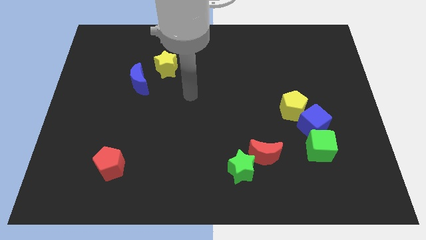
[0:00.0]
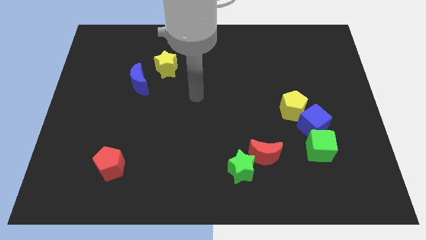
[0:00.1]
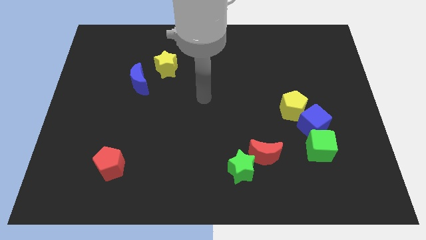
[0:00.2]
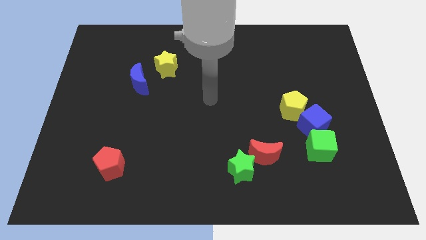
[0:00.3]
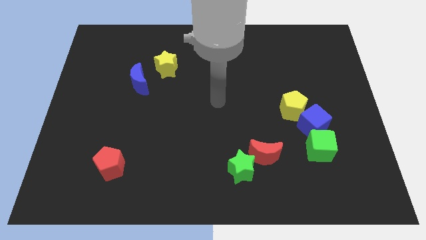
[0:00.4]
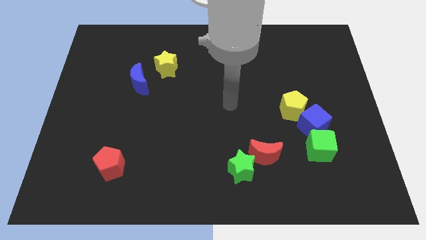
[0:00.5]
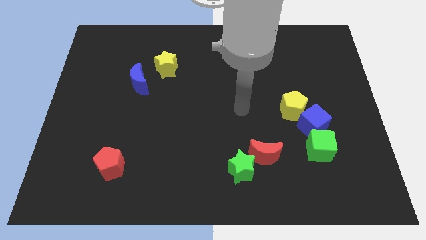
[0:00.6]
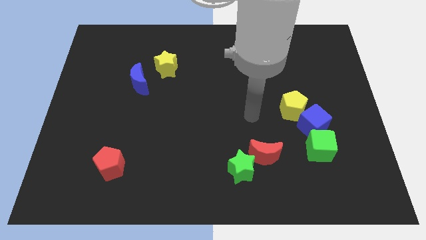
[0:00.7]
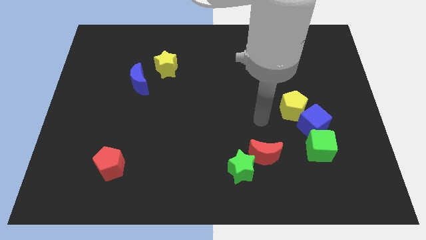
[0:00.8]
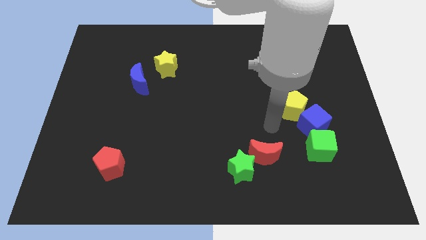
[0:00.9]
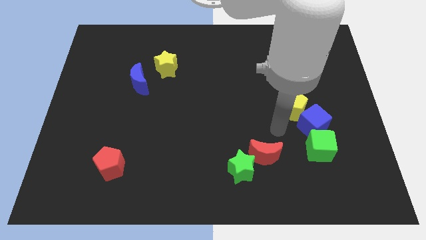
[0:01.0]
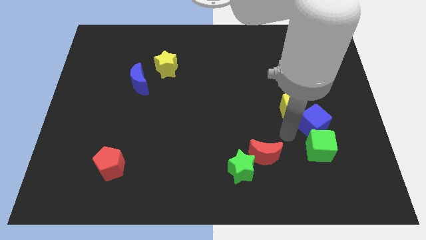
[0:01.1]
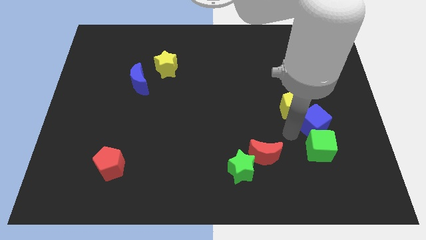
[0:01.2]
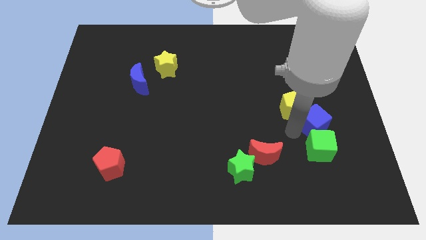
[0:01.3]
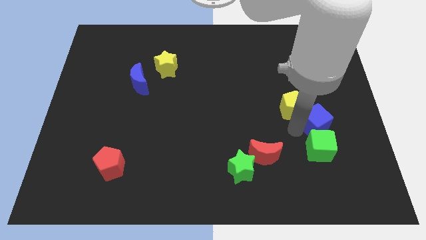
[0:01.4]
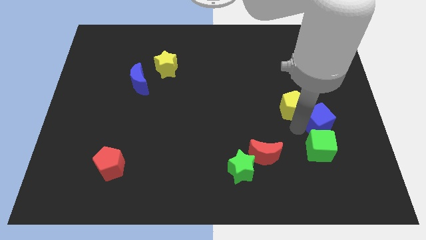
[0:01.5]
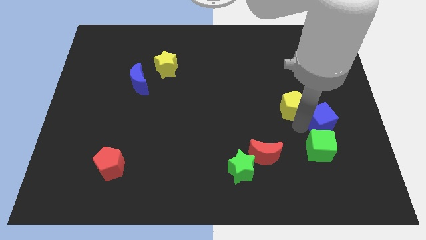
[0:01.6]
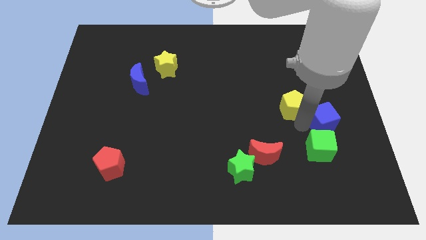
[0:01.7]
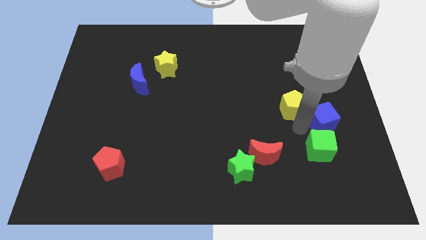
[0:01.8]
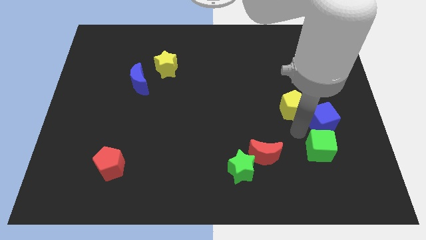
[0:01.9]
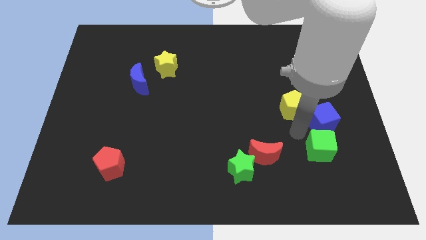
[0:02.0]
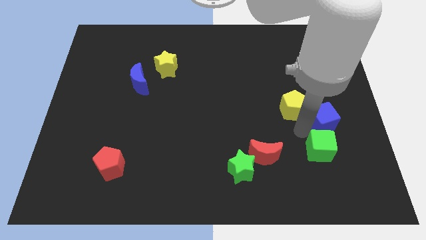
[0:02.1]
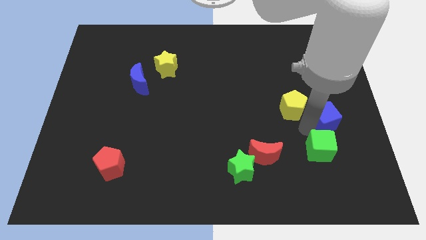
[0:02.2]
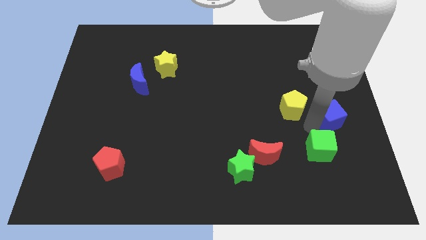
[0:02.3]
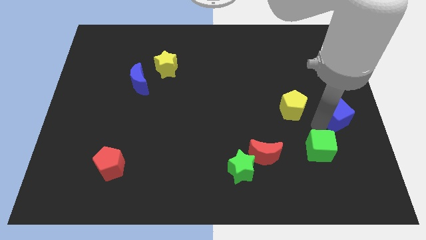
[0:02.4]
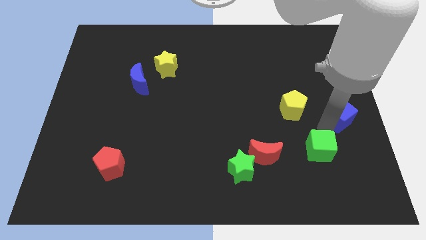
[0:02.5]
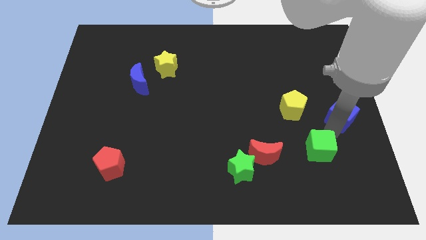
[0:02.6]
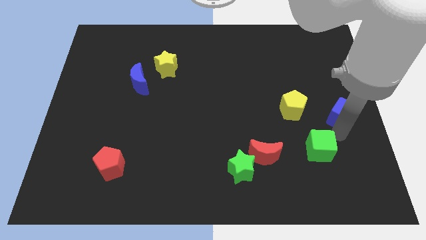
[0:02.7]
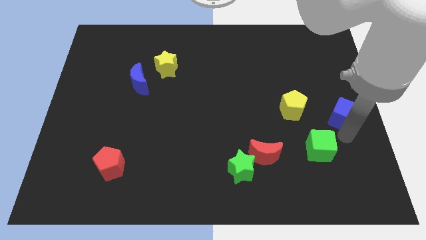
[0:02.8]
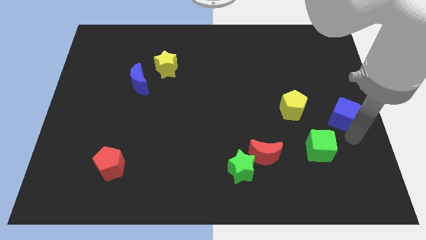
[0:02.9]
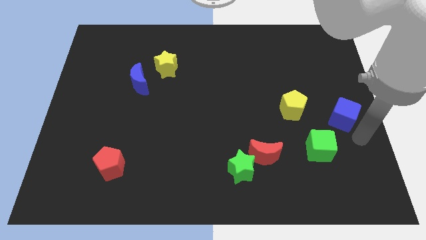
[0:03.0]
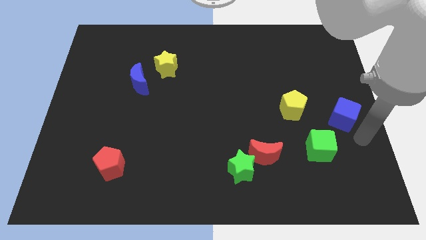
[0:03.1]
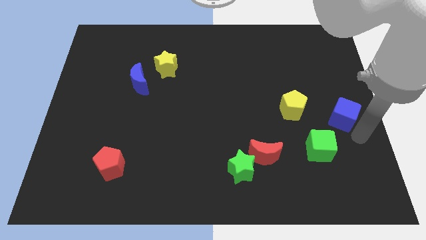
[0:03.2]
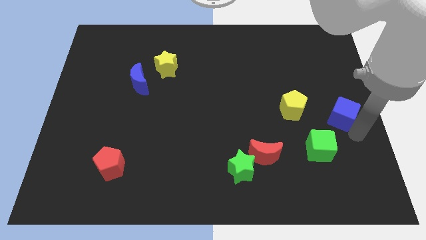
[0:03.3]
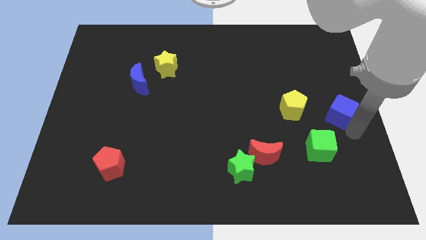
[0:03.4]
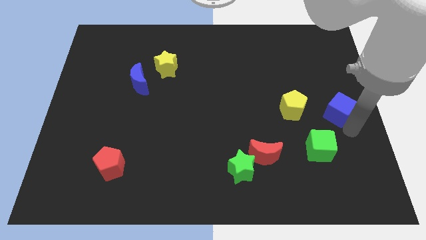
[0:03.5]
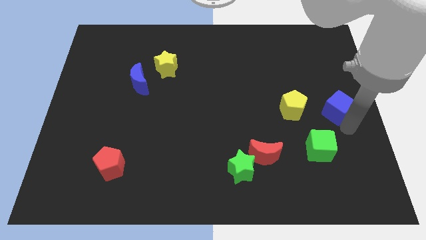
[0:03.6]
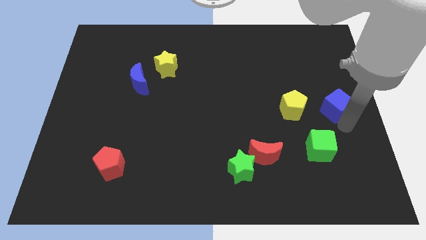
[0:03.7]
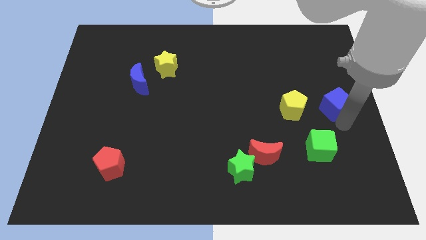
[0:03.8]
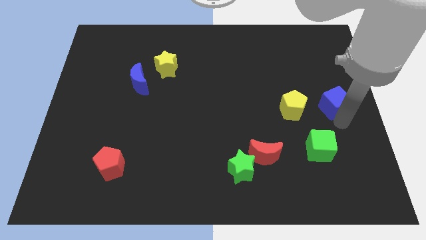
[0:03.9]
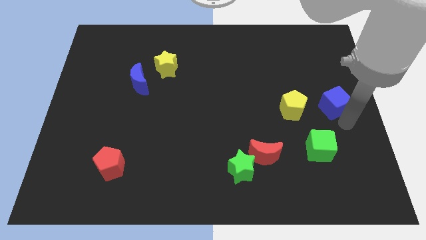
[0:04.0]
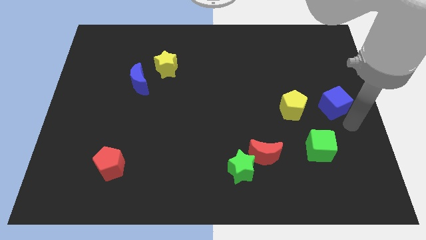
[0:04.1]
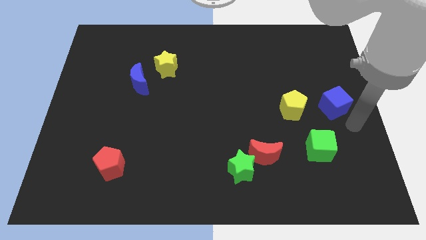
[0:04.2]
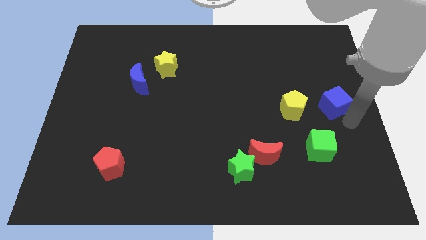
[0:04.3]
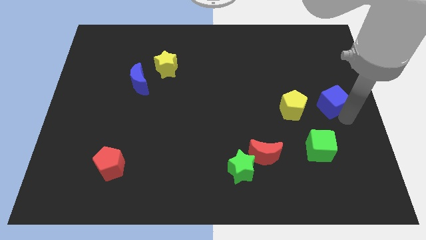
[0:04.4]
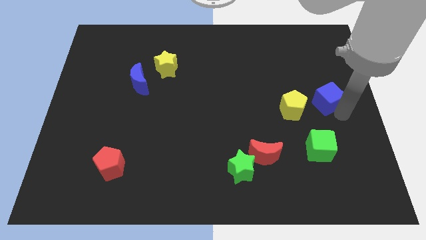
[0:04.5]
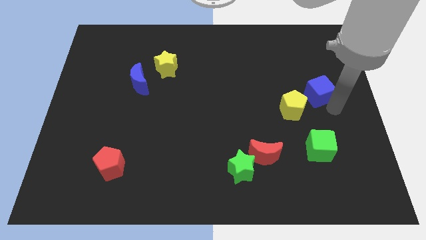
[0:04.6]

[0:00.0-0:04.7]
move the blue cube a little bit up

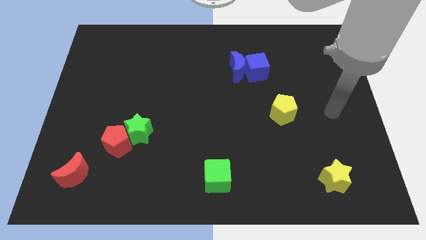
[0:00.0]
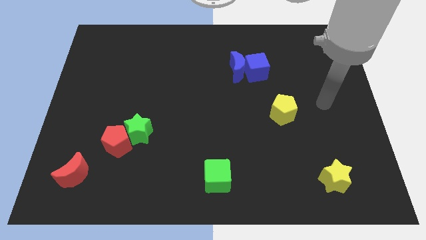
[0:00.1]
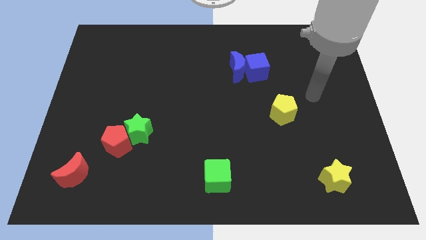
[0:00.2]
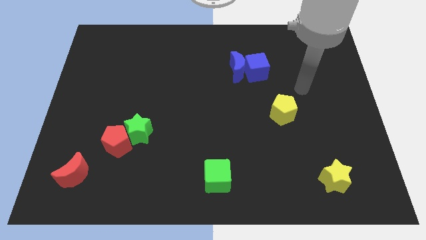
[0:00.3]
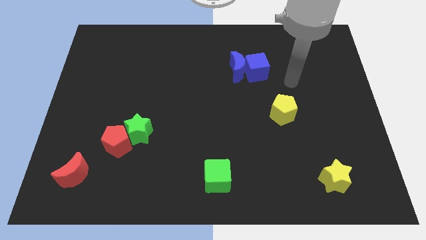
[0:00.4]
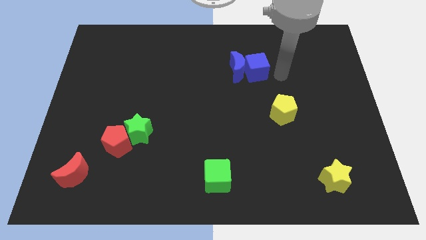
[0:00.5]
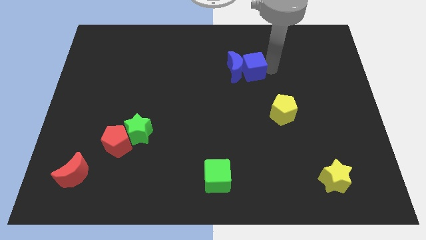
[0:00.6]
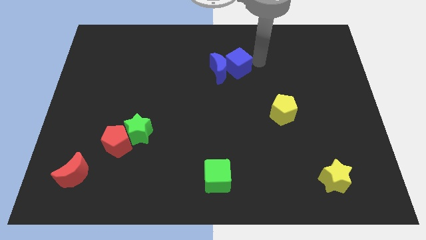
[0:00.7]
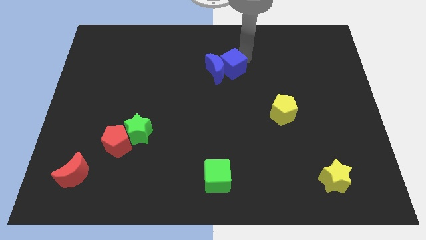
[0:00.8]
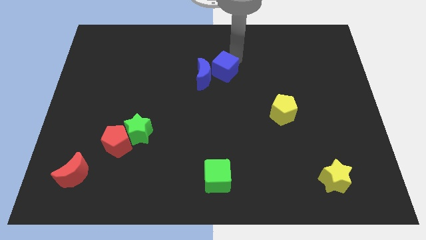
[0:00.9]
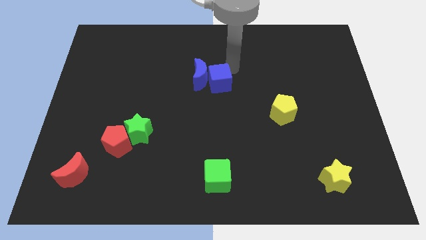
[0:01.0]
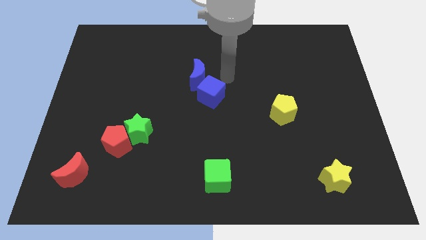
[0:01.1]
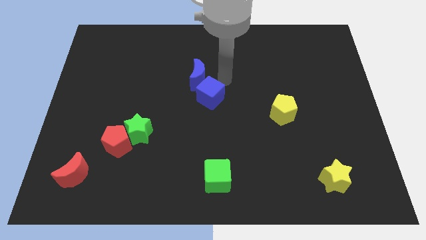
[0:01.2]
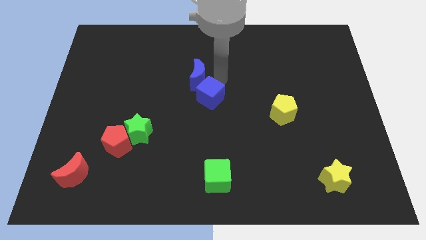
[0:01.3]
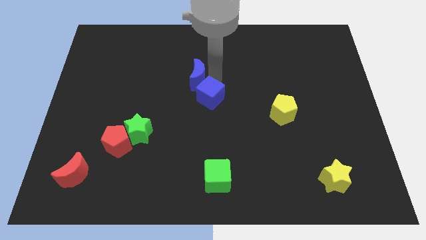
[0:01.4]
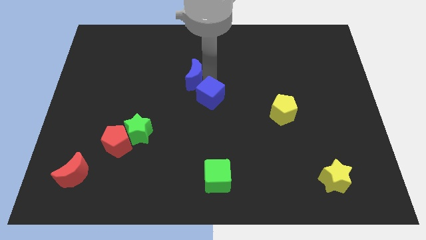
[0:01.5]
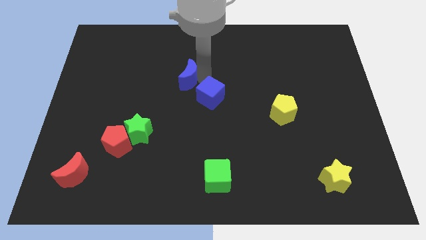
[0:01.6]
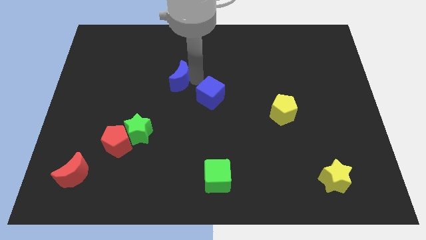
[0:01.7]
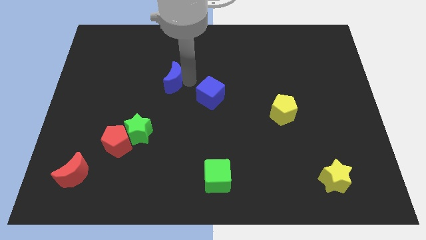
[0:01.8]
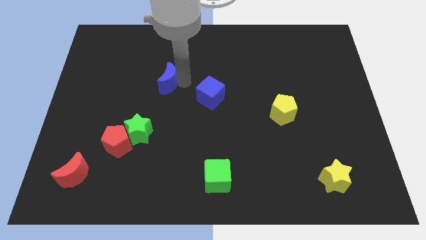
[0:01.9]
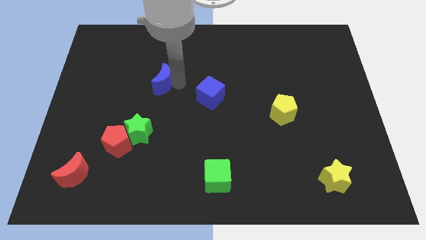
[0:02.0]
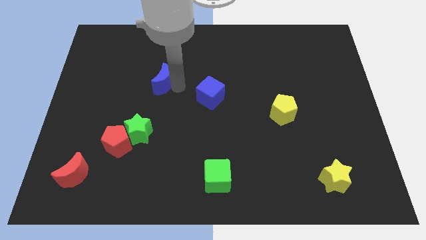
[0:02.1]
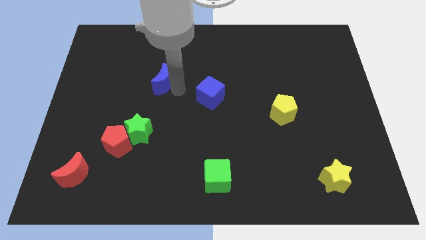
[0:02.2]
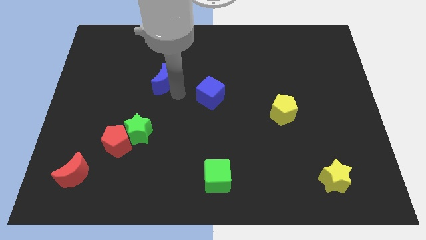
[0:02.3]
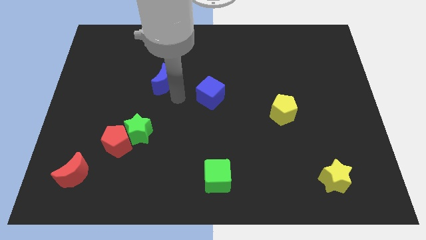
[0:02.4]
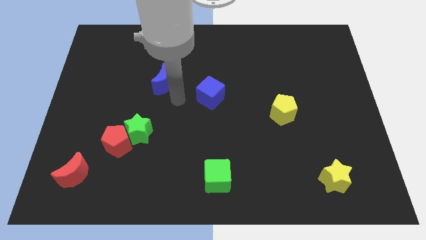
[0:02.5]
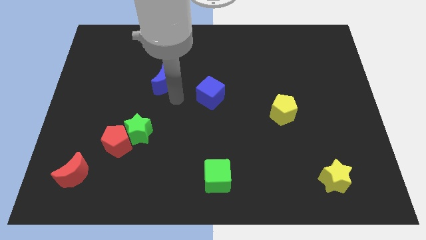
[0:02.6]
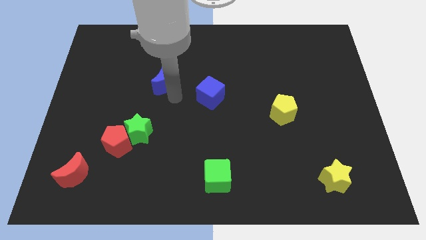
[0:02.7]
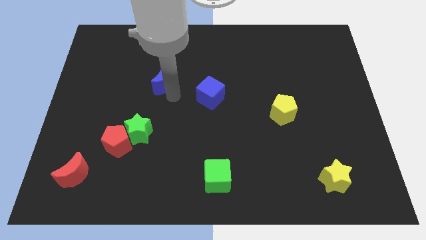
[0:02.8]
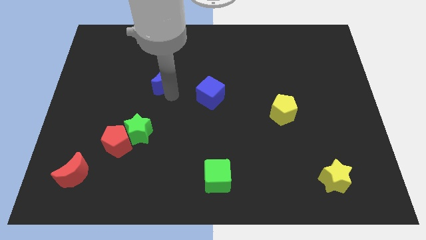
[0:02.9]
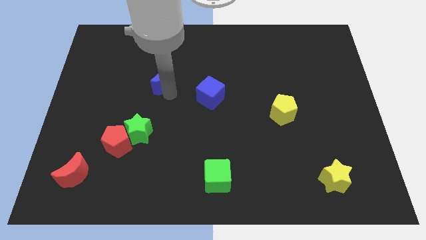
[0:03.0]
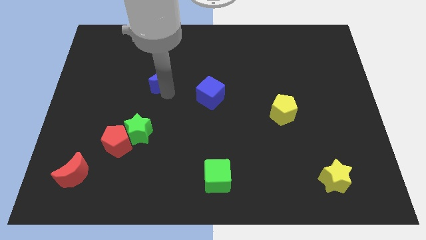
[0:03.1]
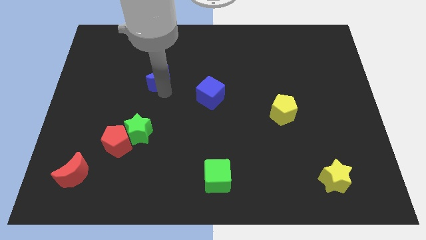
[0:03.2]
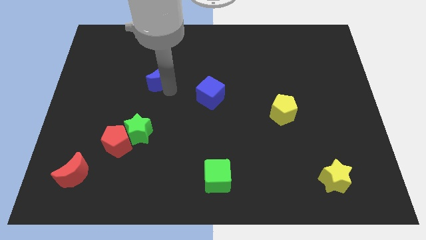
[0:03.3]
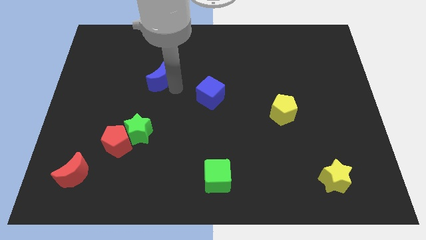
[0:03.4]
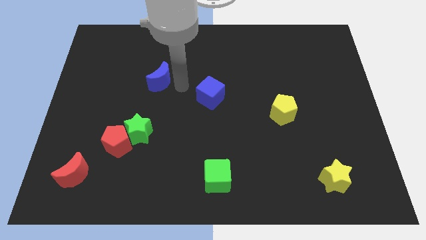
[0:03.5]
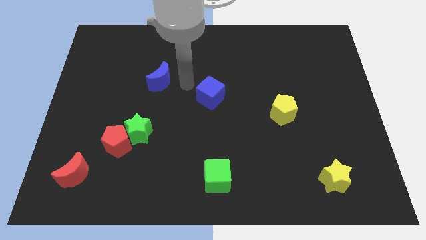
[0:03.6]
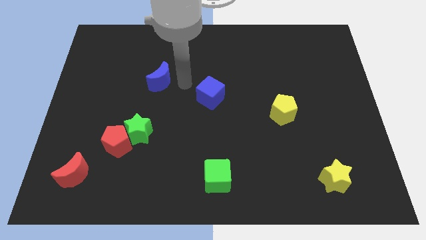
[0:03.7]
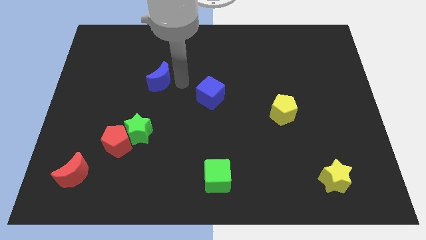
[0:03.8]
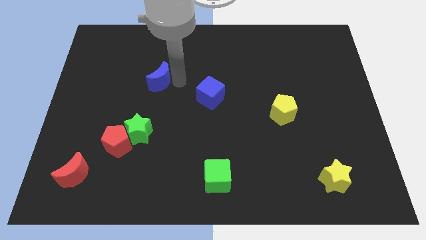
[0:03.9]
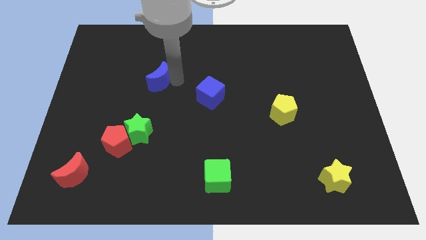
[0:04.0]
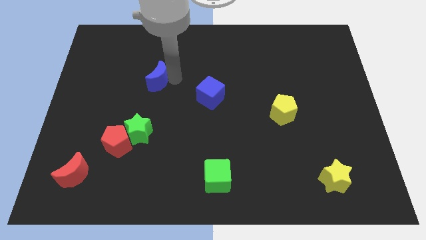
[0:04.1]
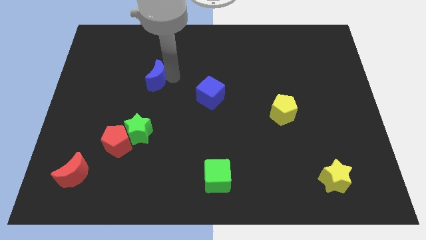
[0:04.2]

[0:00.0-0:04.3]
push the blue moon left
